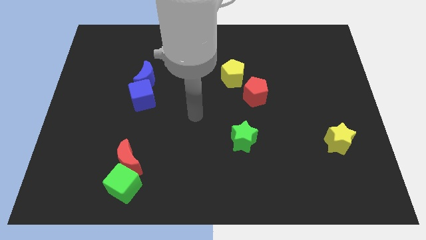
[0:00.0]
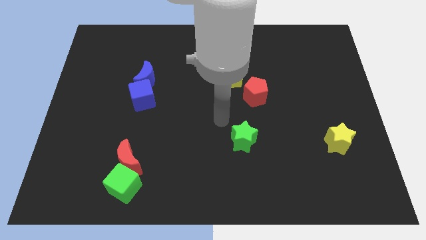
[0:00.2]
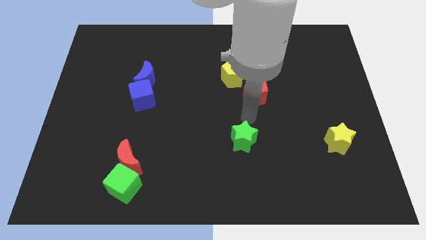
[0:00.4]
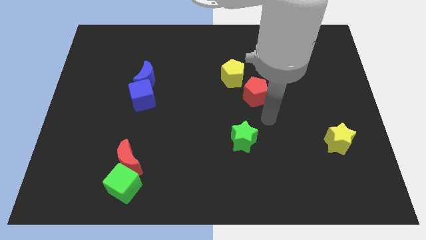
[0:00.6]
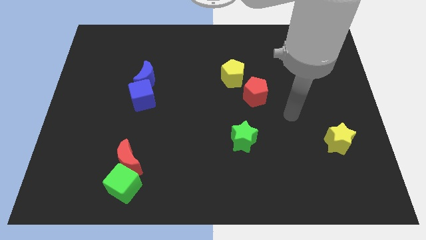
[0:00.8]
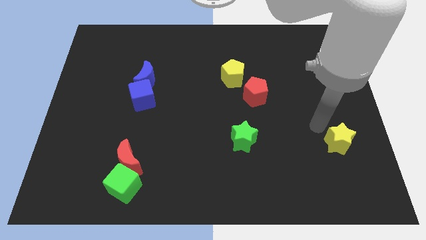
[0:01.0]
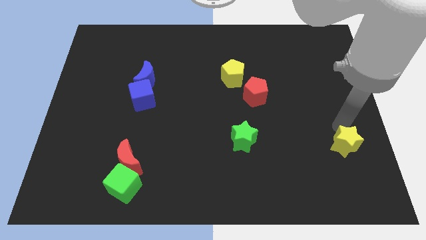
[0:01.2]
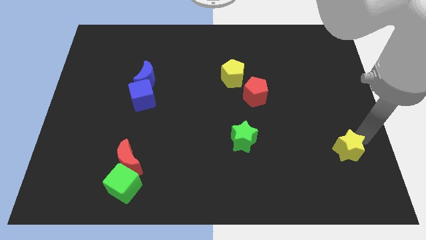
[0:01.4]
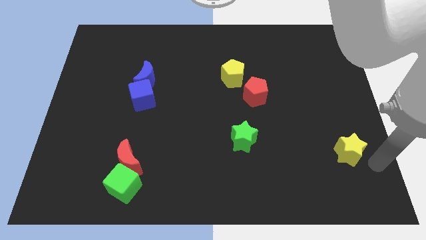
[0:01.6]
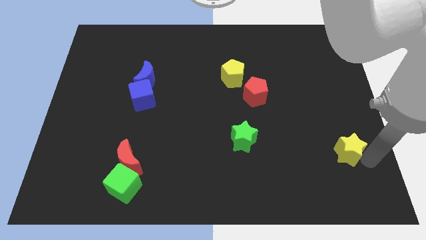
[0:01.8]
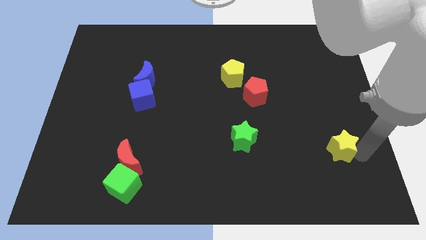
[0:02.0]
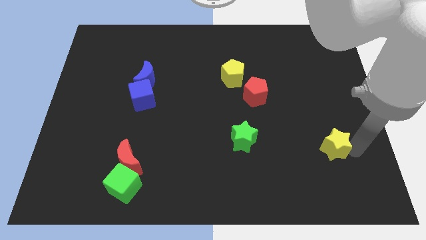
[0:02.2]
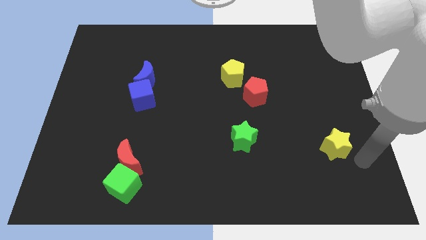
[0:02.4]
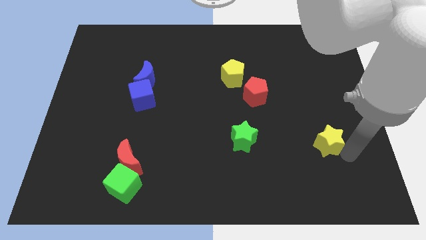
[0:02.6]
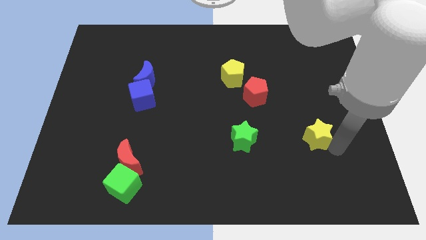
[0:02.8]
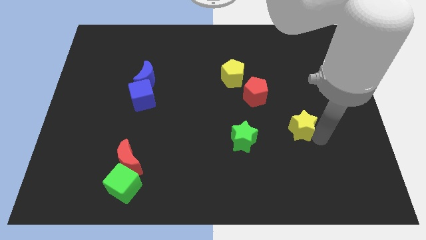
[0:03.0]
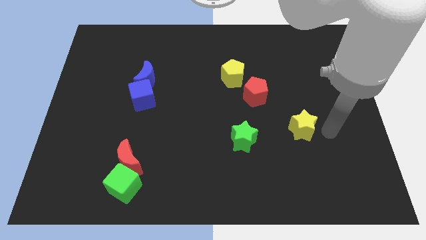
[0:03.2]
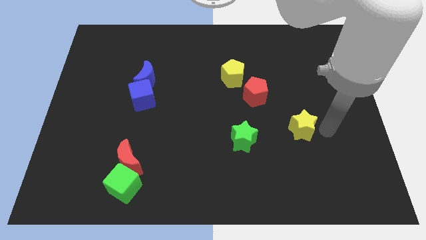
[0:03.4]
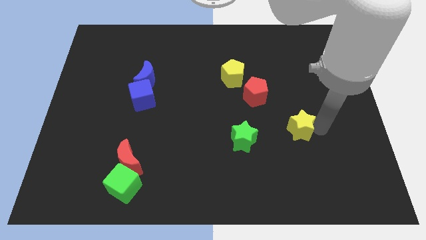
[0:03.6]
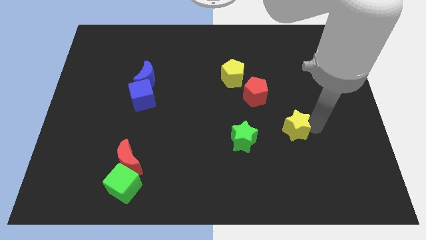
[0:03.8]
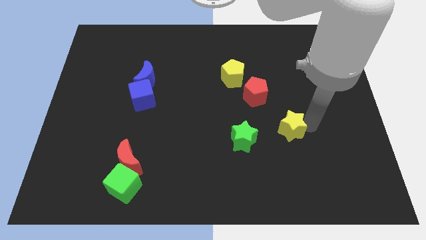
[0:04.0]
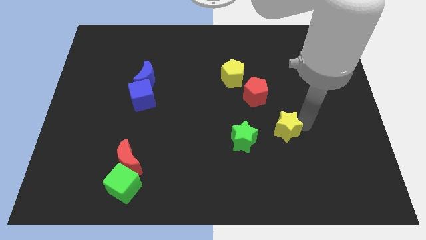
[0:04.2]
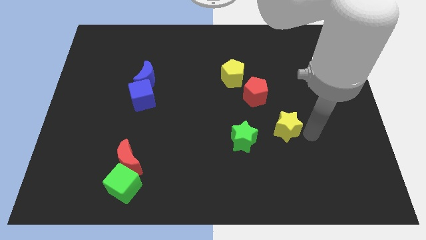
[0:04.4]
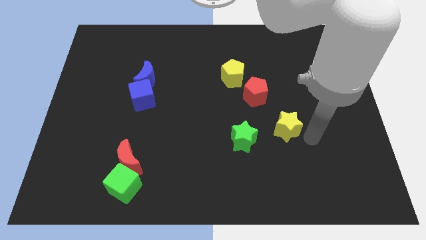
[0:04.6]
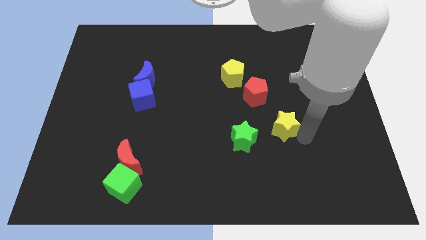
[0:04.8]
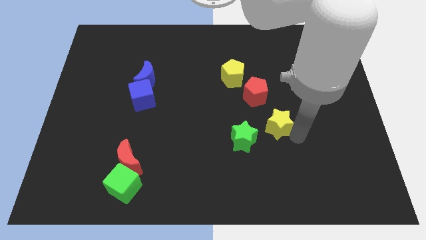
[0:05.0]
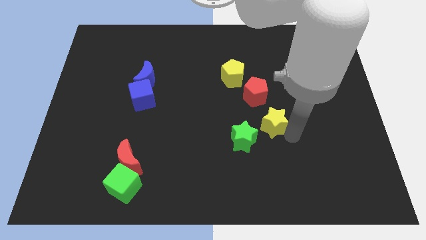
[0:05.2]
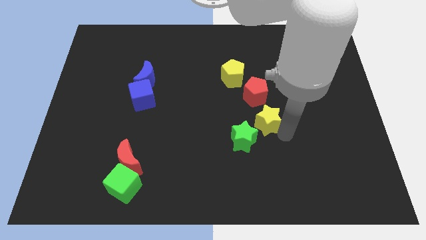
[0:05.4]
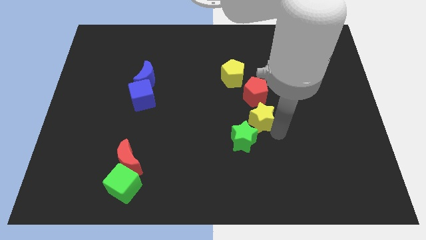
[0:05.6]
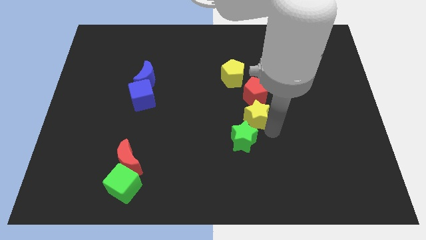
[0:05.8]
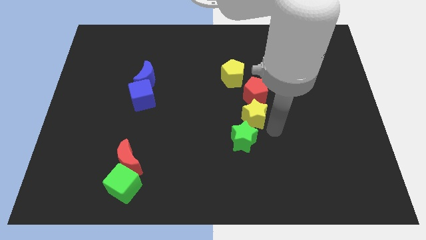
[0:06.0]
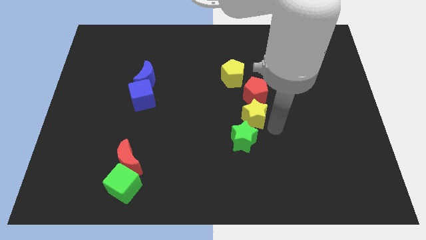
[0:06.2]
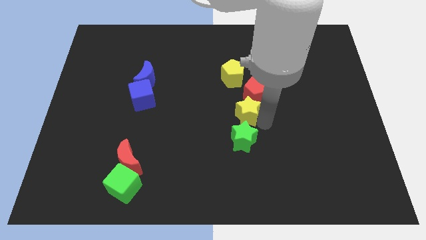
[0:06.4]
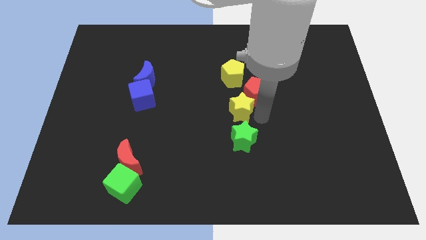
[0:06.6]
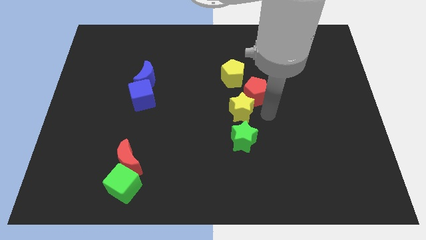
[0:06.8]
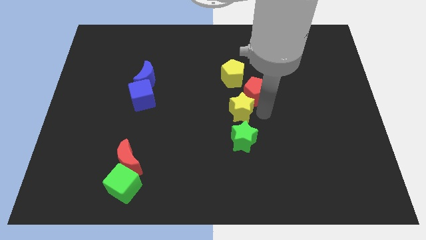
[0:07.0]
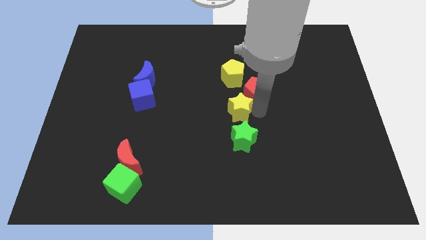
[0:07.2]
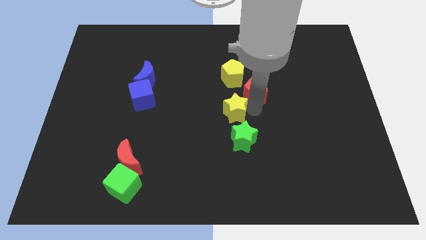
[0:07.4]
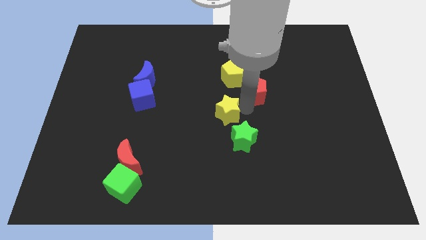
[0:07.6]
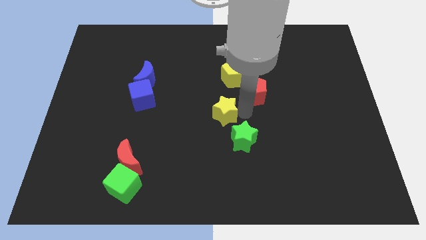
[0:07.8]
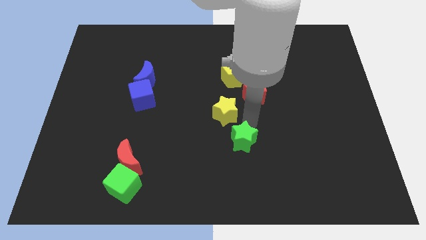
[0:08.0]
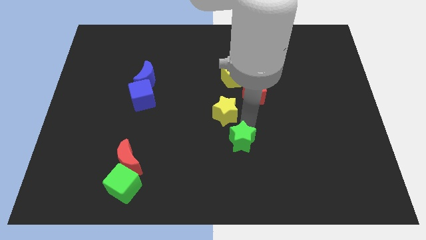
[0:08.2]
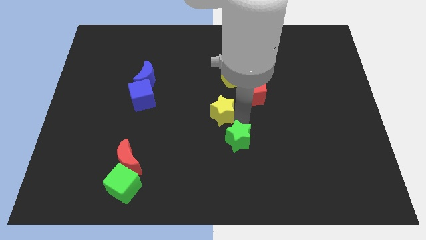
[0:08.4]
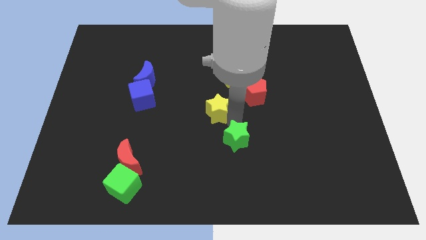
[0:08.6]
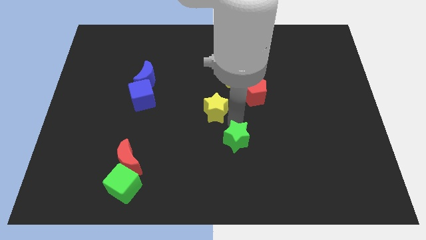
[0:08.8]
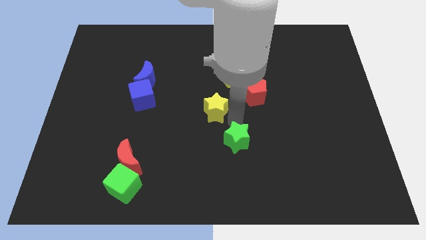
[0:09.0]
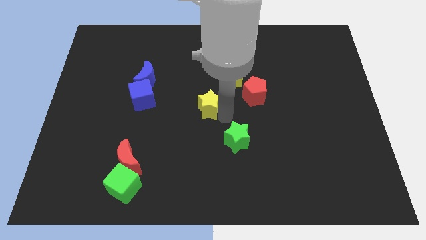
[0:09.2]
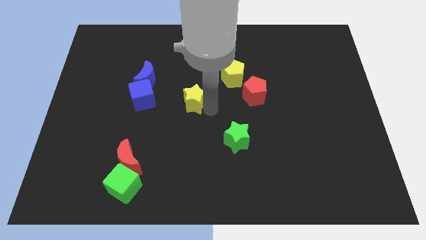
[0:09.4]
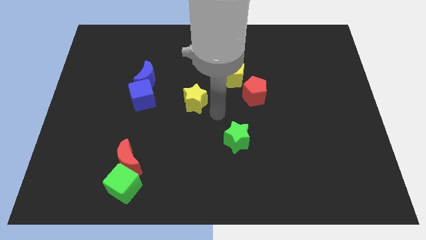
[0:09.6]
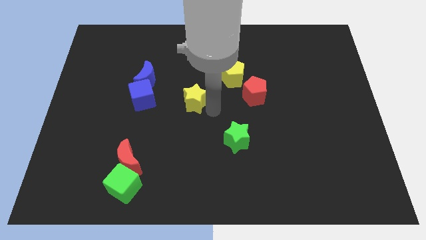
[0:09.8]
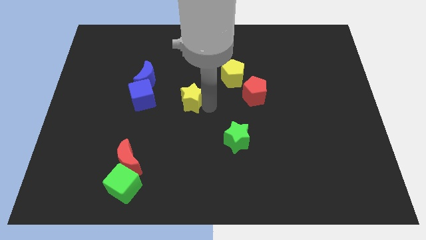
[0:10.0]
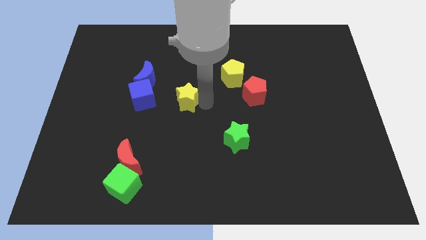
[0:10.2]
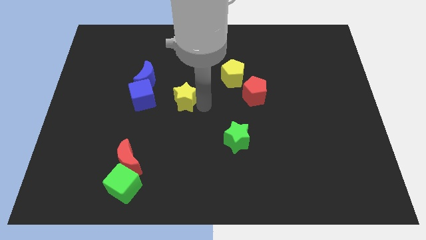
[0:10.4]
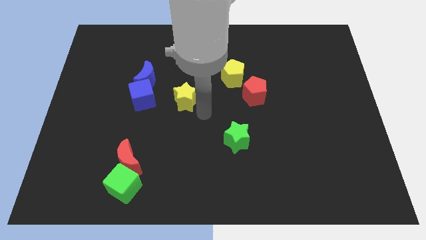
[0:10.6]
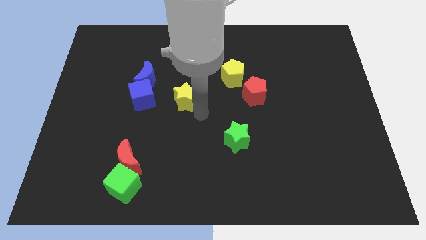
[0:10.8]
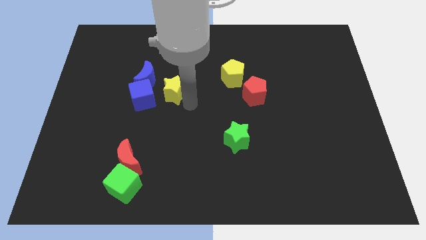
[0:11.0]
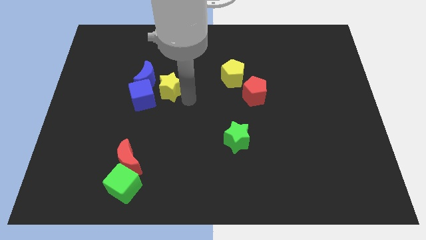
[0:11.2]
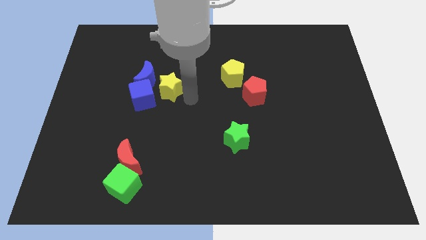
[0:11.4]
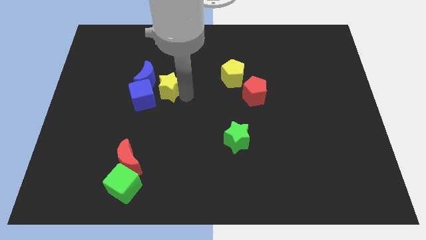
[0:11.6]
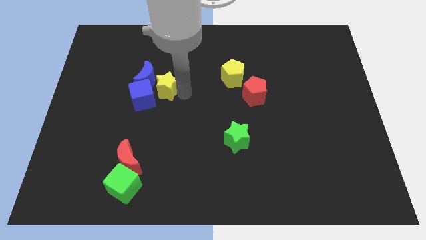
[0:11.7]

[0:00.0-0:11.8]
push the yellow star next to the blue moon

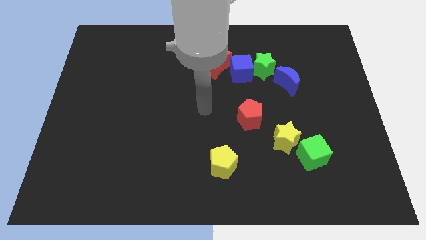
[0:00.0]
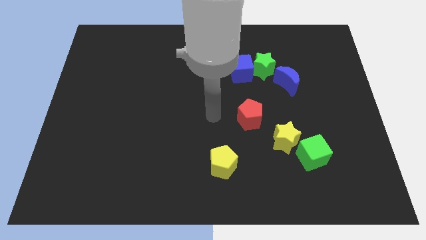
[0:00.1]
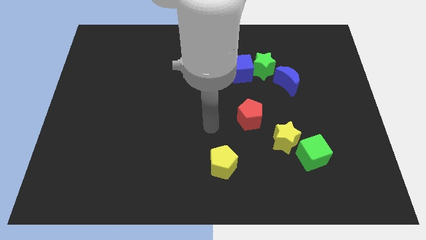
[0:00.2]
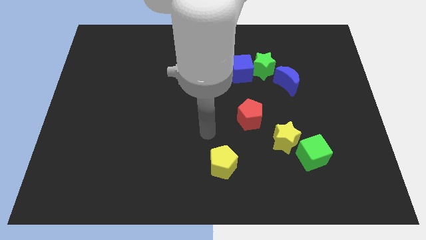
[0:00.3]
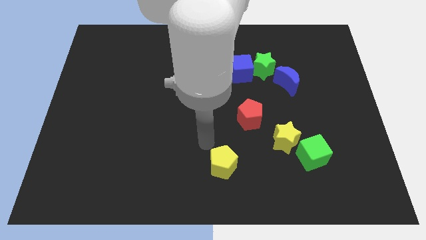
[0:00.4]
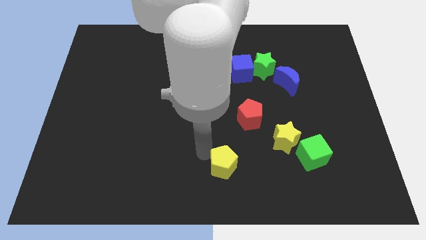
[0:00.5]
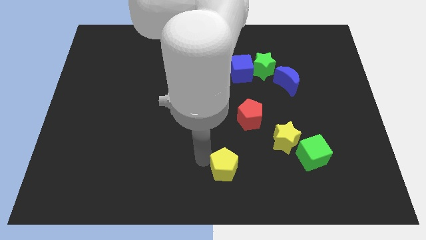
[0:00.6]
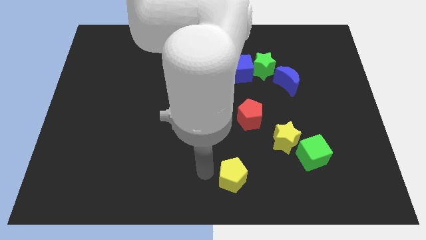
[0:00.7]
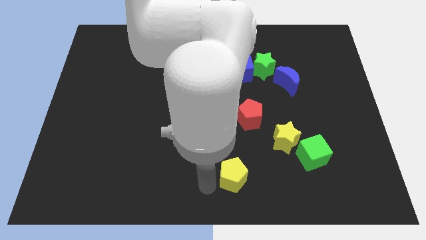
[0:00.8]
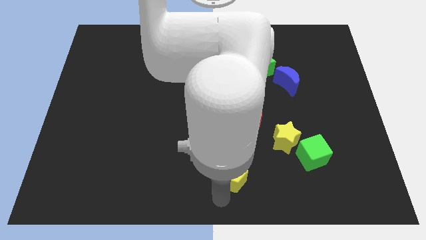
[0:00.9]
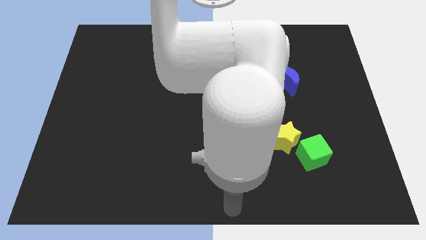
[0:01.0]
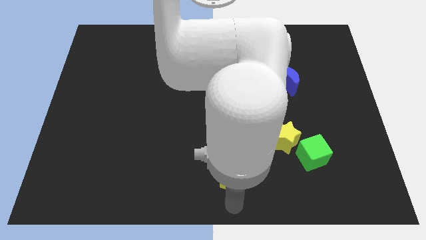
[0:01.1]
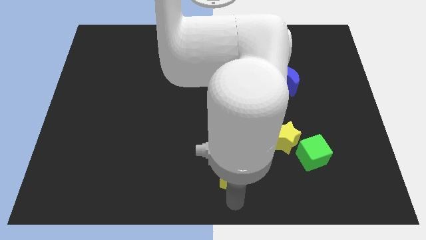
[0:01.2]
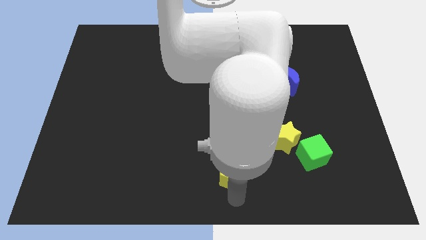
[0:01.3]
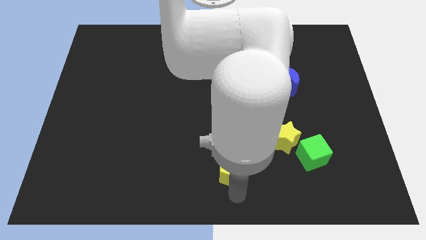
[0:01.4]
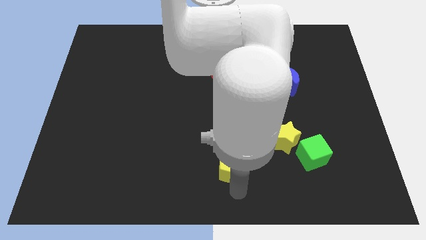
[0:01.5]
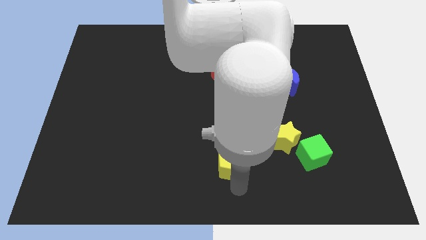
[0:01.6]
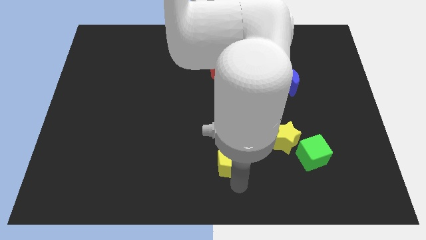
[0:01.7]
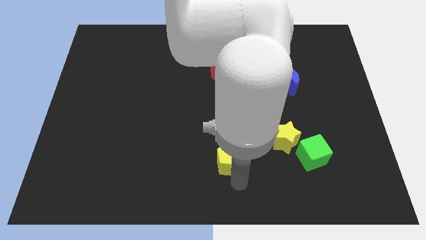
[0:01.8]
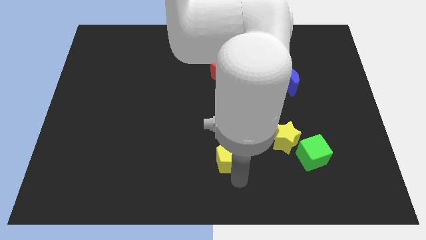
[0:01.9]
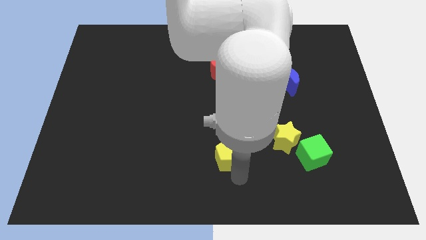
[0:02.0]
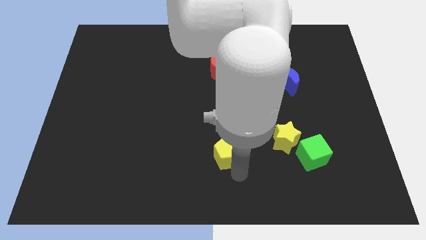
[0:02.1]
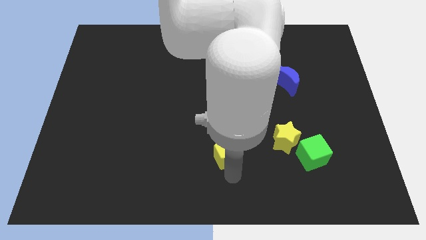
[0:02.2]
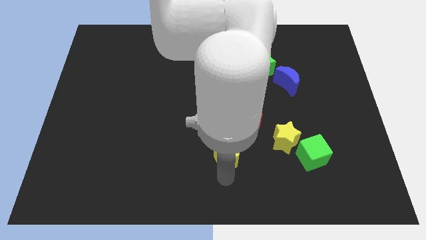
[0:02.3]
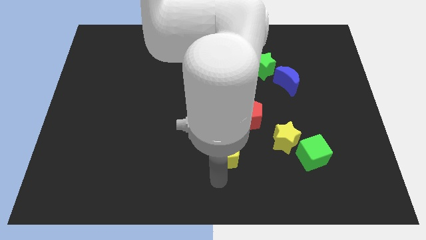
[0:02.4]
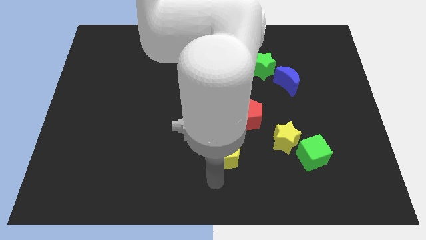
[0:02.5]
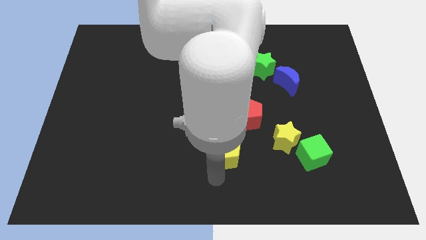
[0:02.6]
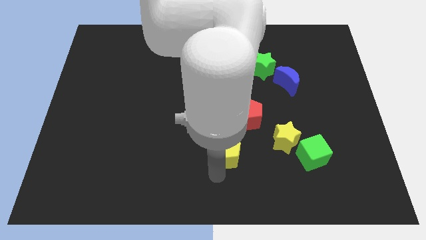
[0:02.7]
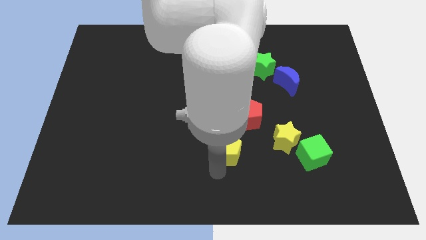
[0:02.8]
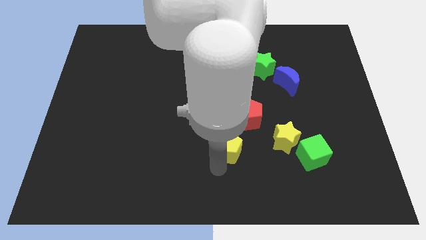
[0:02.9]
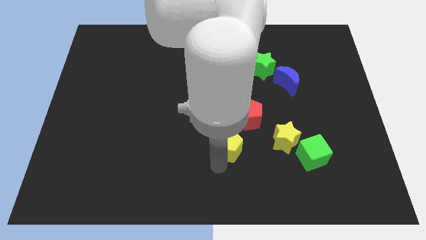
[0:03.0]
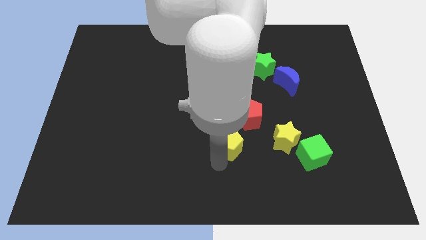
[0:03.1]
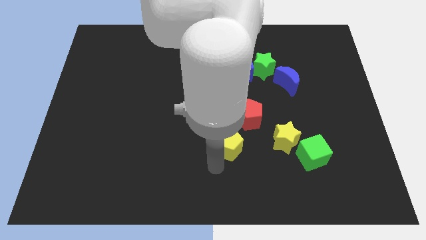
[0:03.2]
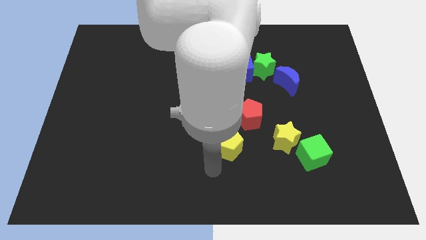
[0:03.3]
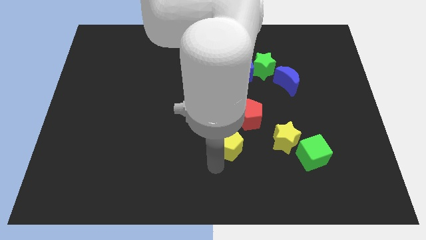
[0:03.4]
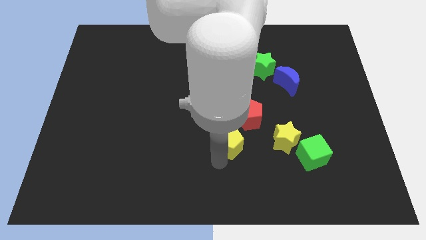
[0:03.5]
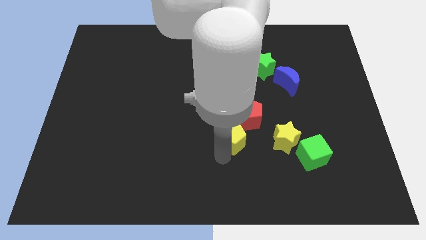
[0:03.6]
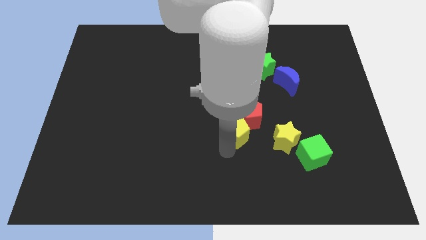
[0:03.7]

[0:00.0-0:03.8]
put the yellow pentagon towards the red pentagon
